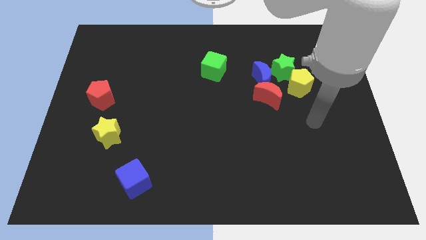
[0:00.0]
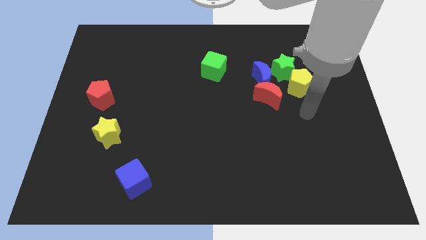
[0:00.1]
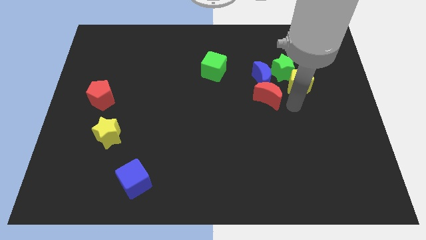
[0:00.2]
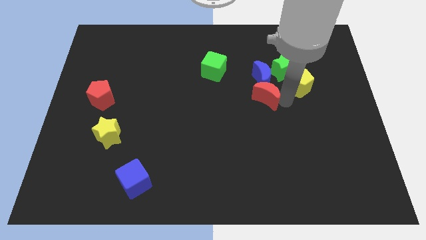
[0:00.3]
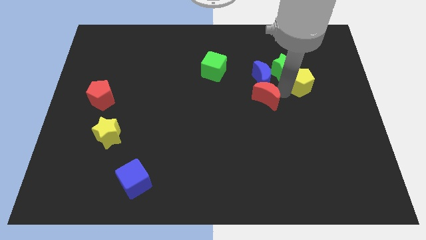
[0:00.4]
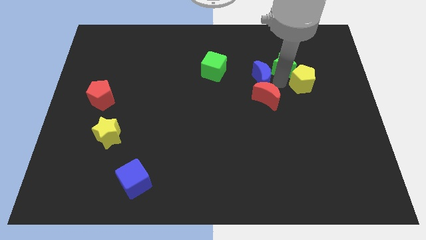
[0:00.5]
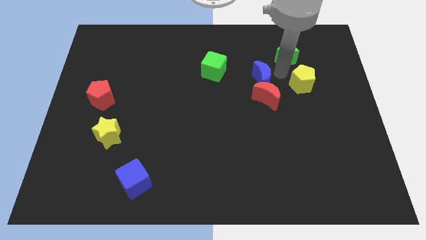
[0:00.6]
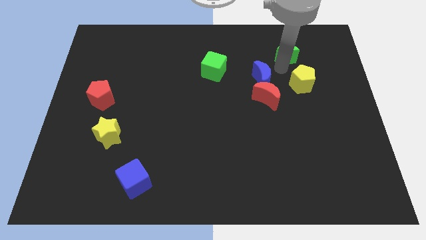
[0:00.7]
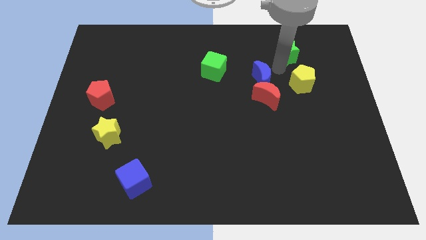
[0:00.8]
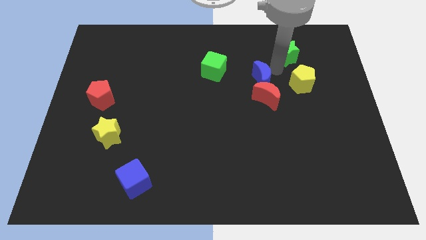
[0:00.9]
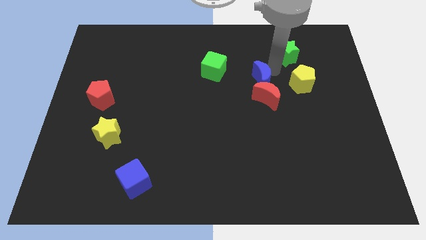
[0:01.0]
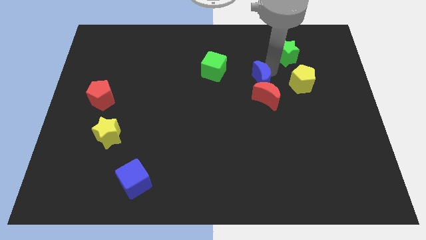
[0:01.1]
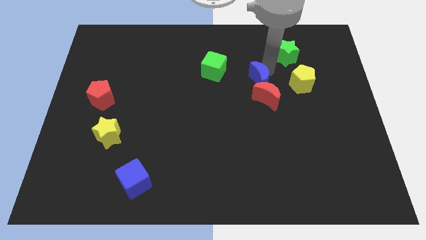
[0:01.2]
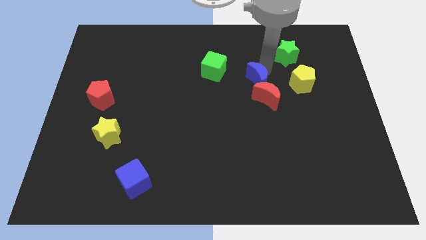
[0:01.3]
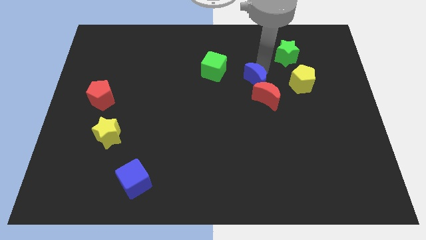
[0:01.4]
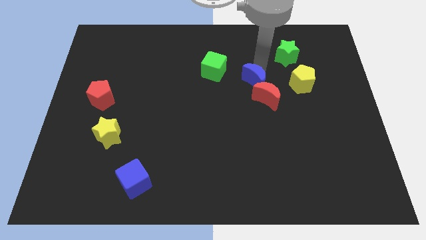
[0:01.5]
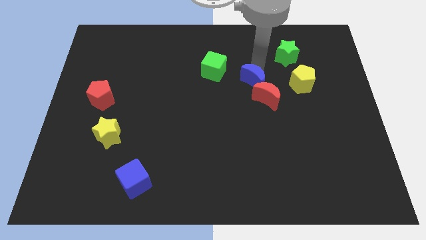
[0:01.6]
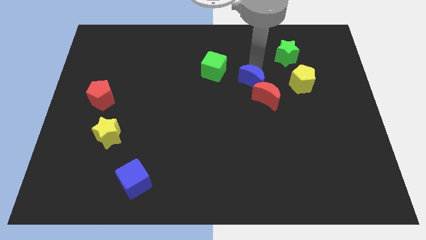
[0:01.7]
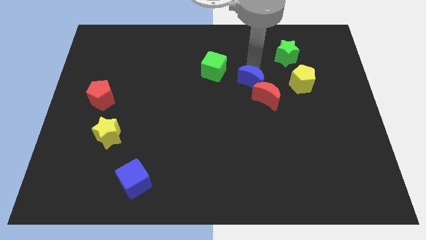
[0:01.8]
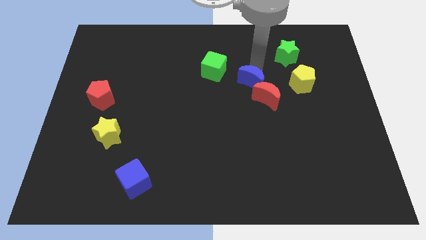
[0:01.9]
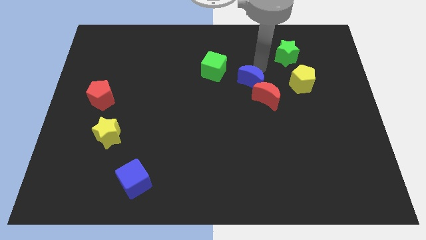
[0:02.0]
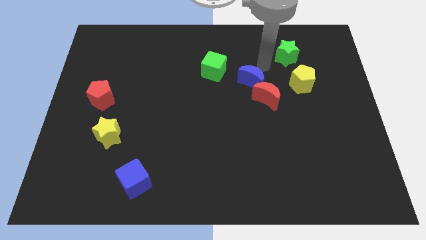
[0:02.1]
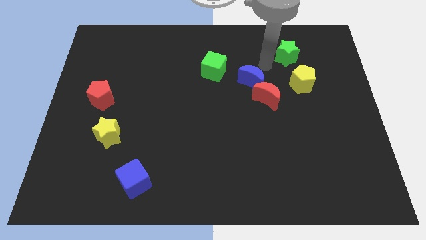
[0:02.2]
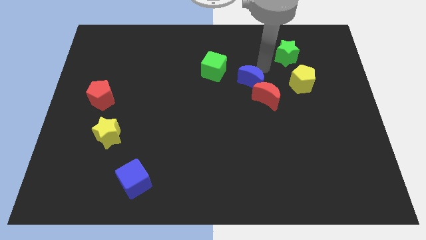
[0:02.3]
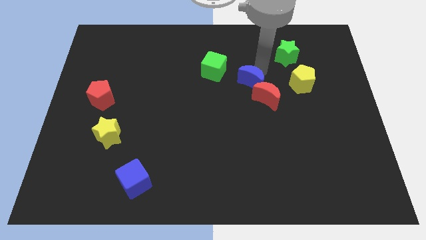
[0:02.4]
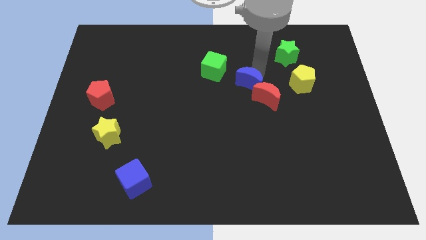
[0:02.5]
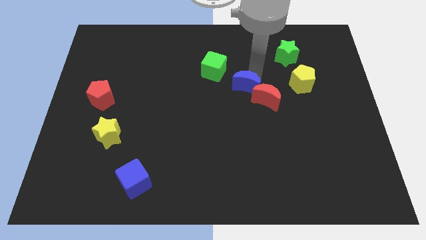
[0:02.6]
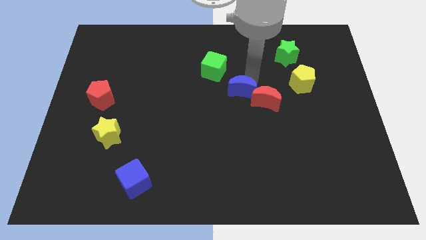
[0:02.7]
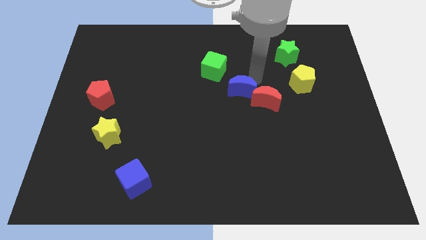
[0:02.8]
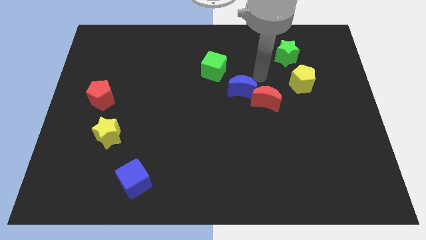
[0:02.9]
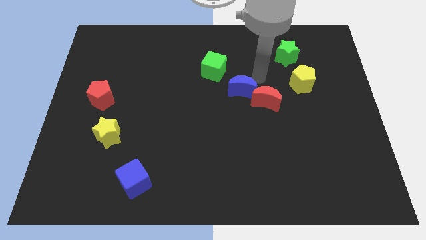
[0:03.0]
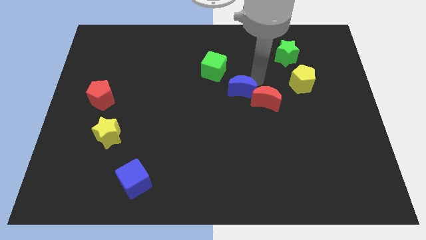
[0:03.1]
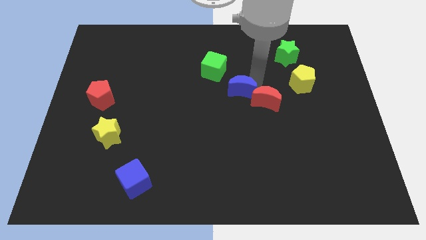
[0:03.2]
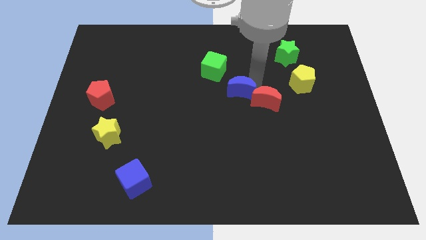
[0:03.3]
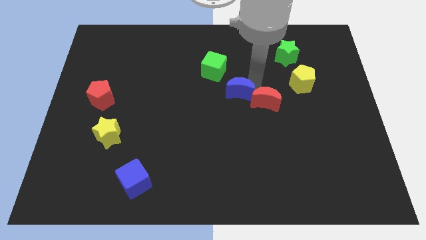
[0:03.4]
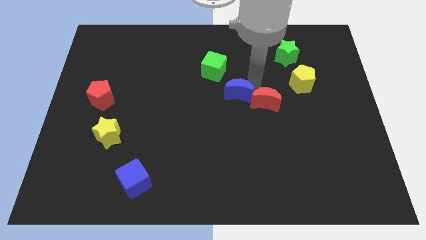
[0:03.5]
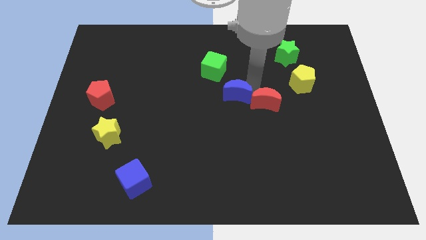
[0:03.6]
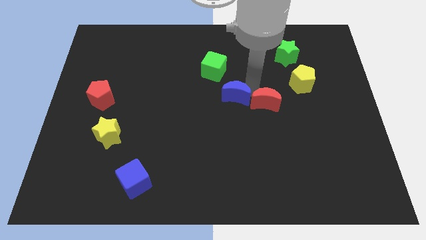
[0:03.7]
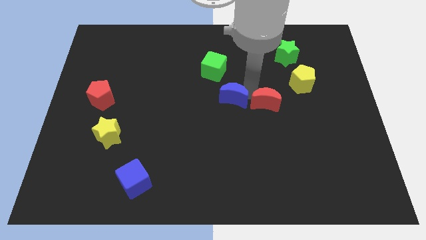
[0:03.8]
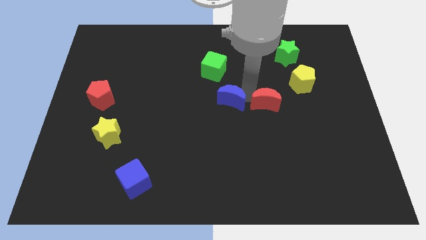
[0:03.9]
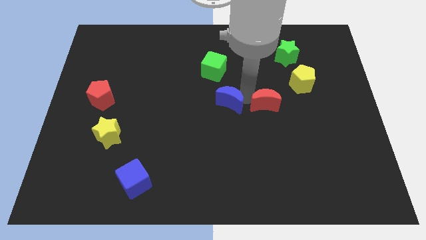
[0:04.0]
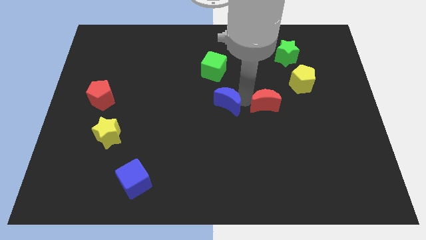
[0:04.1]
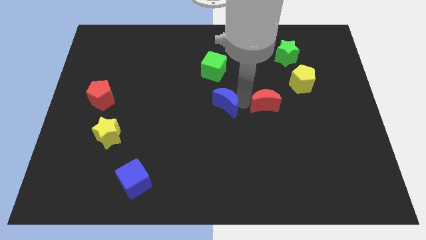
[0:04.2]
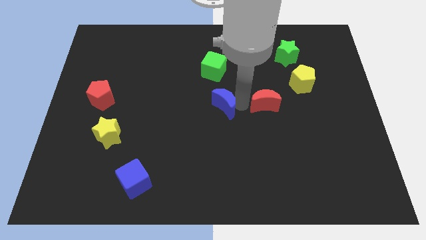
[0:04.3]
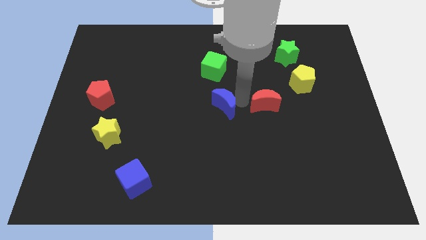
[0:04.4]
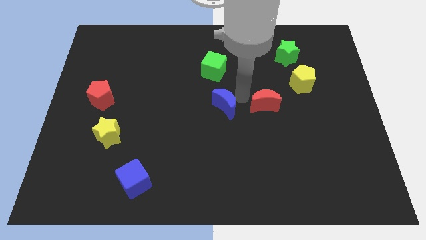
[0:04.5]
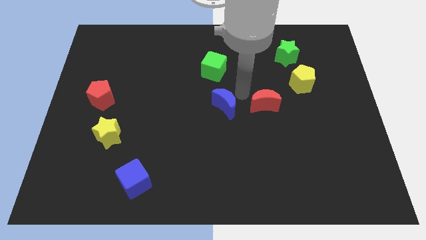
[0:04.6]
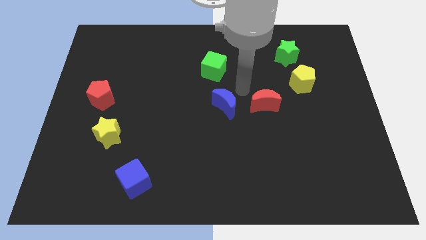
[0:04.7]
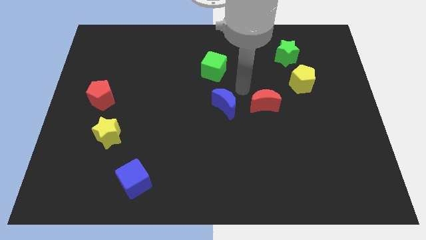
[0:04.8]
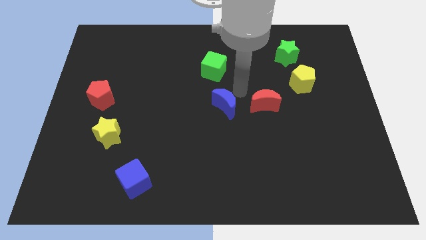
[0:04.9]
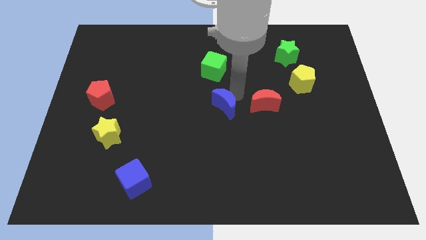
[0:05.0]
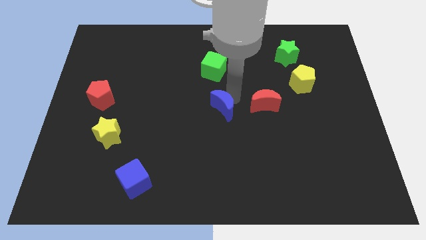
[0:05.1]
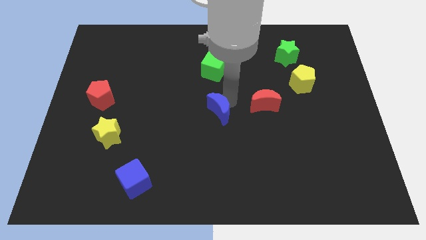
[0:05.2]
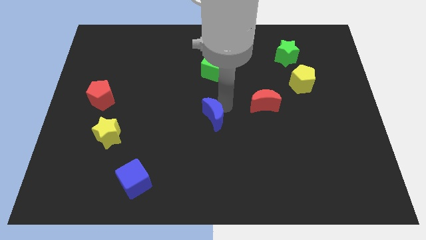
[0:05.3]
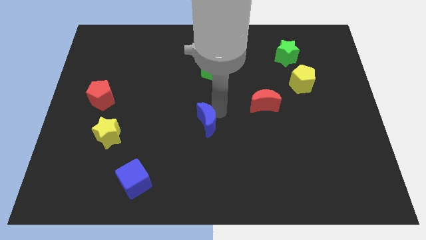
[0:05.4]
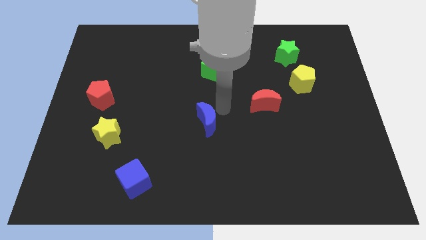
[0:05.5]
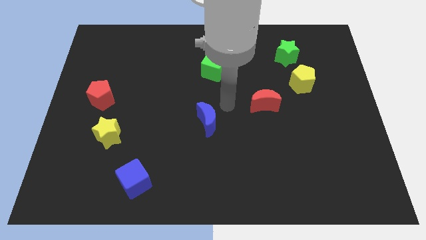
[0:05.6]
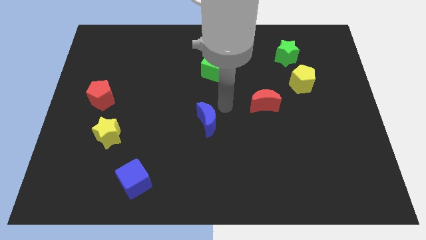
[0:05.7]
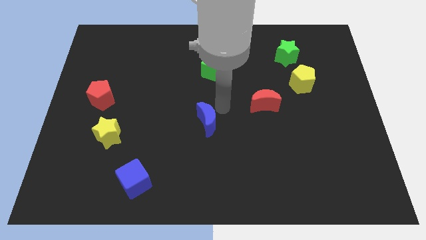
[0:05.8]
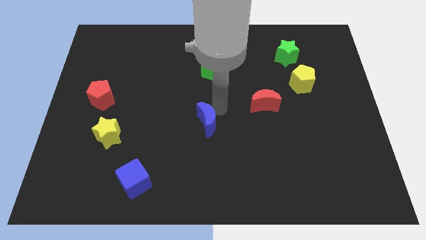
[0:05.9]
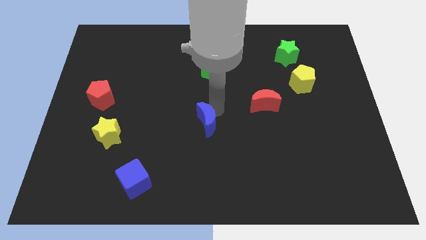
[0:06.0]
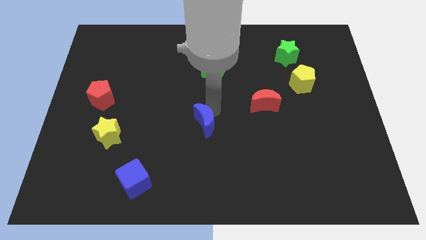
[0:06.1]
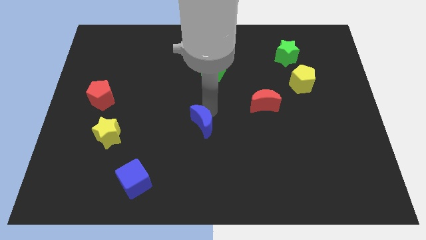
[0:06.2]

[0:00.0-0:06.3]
push the blue moon downwards and left

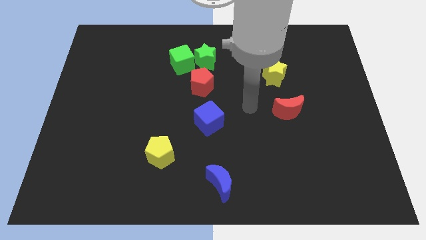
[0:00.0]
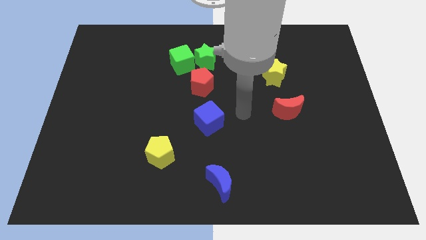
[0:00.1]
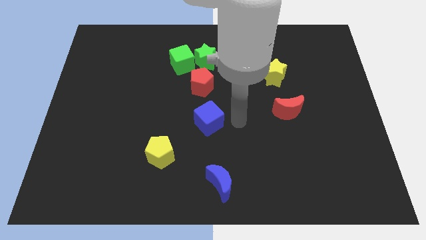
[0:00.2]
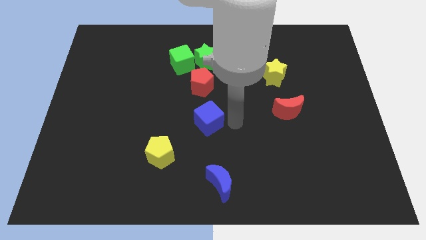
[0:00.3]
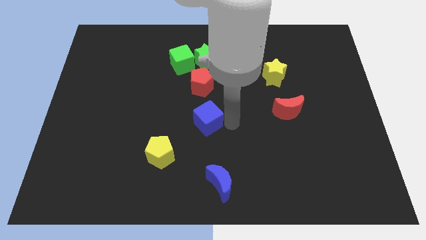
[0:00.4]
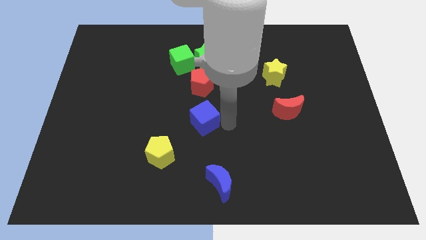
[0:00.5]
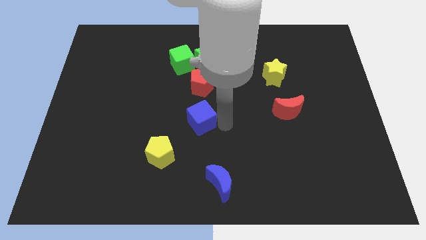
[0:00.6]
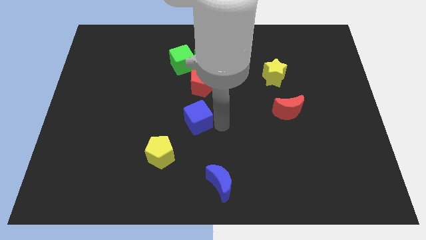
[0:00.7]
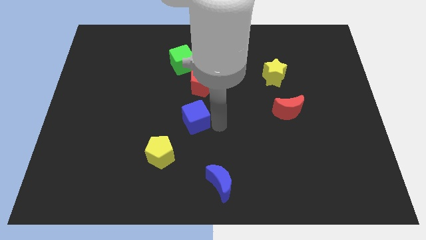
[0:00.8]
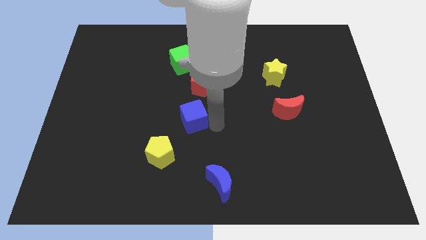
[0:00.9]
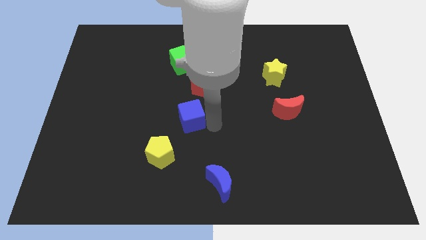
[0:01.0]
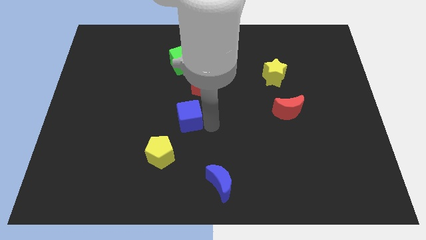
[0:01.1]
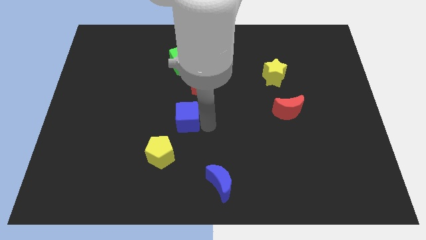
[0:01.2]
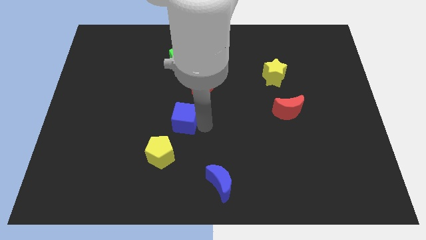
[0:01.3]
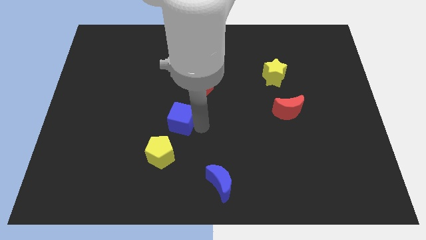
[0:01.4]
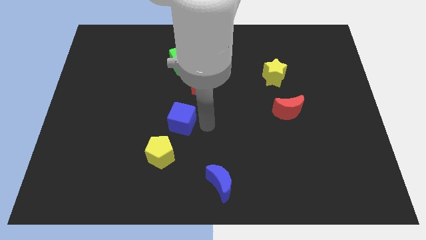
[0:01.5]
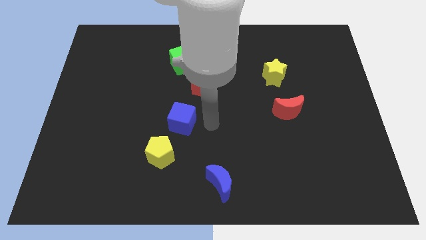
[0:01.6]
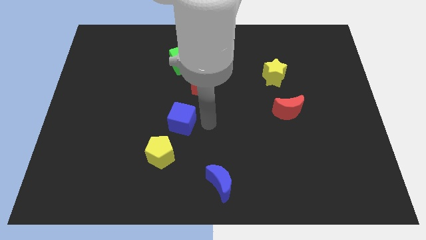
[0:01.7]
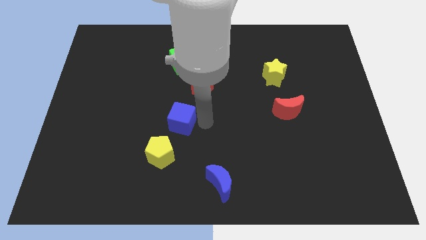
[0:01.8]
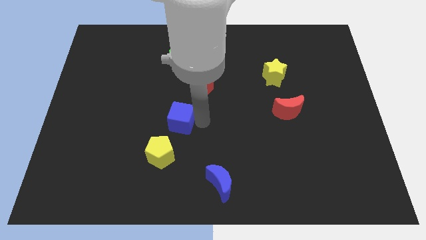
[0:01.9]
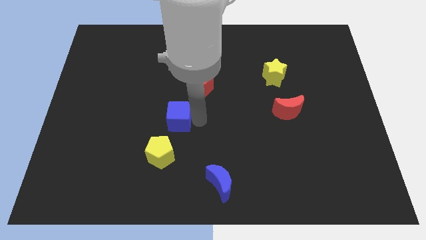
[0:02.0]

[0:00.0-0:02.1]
move the blue cube to the left a little bit
